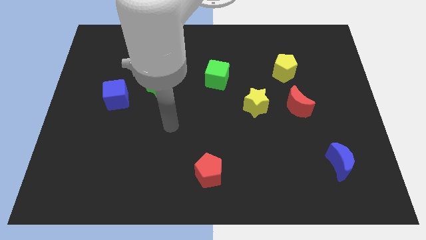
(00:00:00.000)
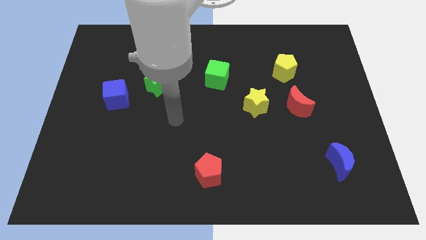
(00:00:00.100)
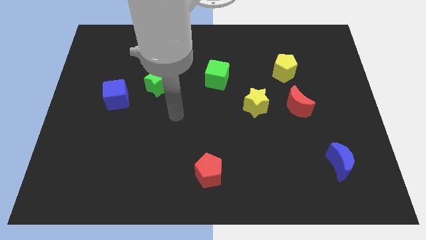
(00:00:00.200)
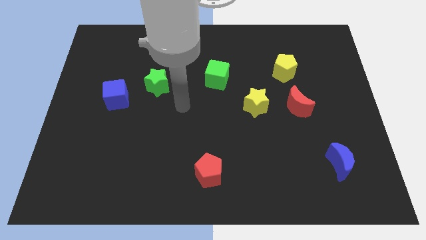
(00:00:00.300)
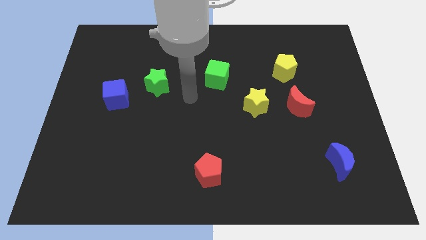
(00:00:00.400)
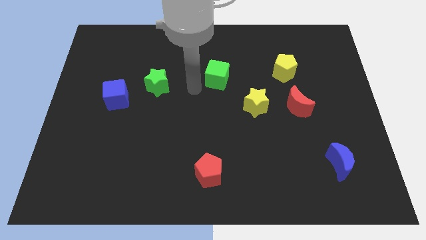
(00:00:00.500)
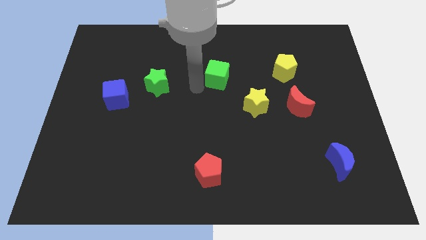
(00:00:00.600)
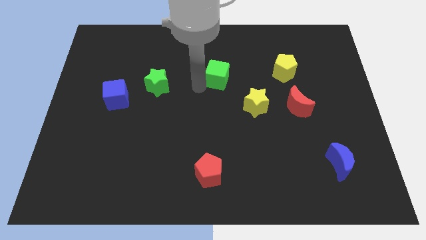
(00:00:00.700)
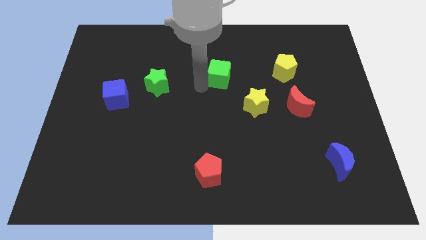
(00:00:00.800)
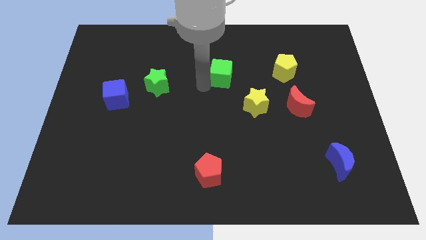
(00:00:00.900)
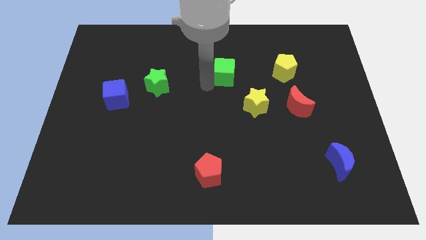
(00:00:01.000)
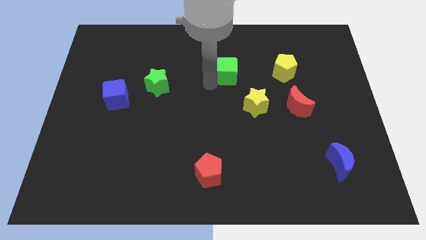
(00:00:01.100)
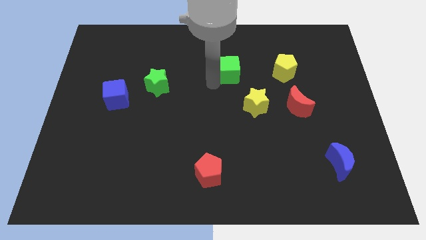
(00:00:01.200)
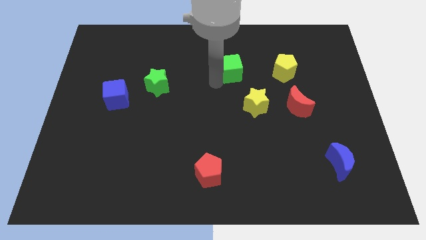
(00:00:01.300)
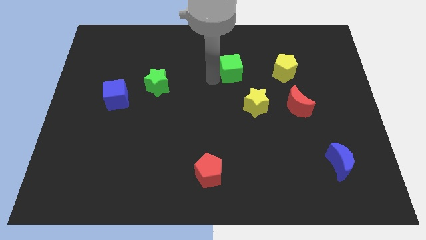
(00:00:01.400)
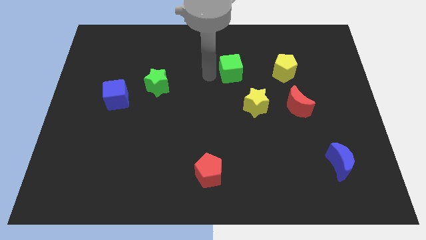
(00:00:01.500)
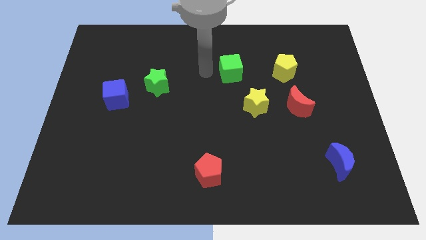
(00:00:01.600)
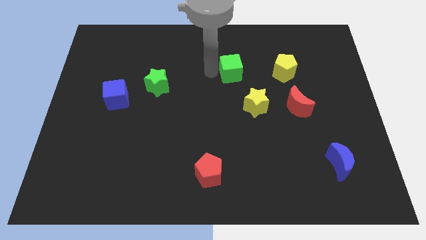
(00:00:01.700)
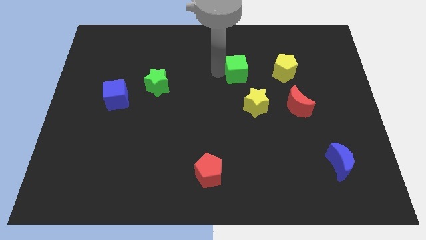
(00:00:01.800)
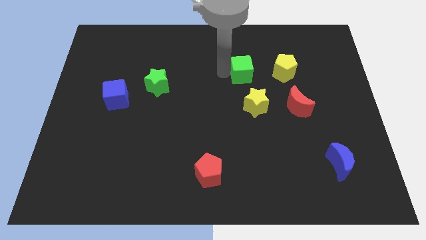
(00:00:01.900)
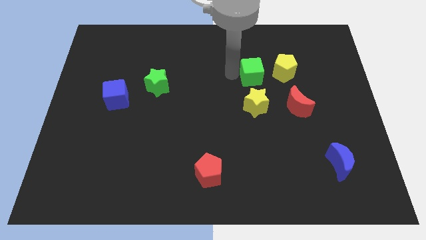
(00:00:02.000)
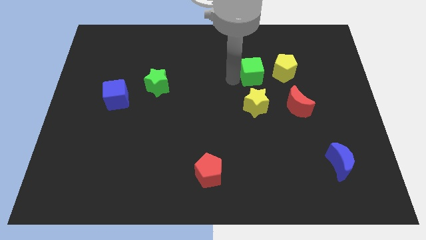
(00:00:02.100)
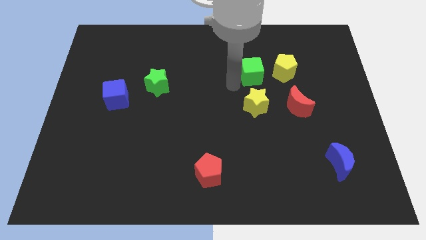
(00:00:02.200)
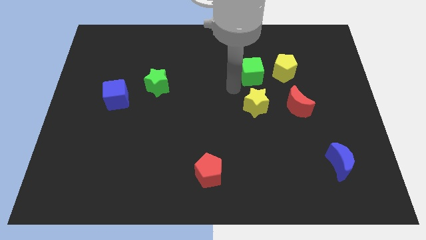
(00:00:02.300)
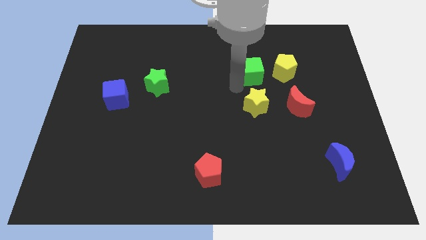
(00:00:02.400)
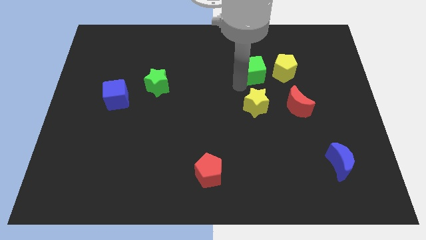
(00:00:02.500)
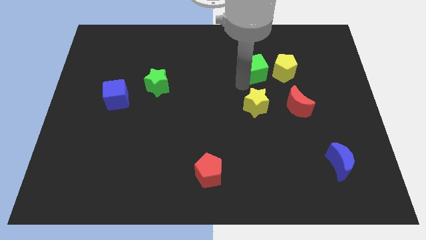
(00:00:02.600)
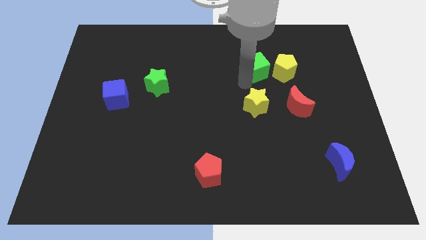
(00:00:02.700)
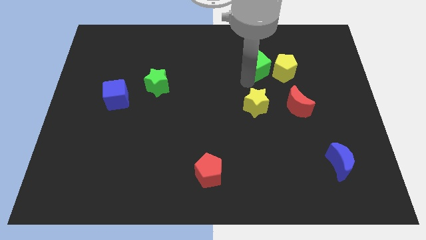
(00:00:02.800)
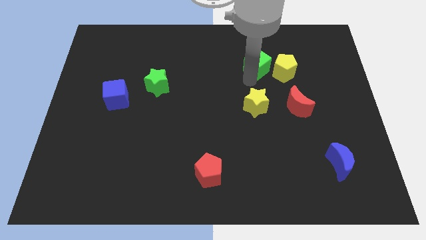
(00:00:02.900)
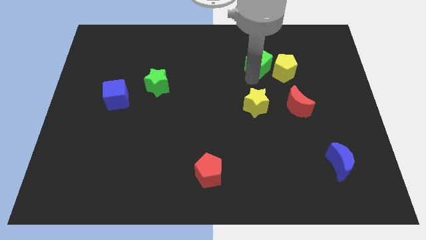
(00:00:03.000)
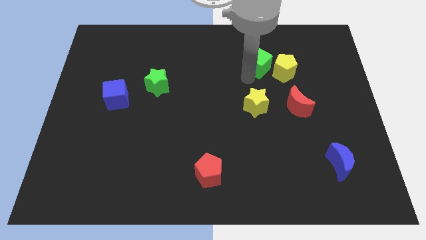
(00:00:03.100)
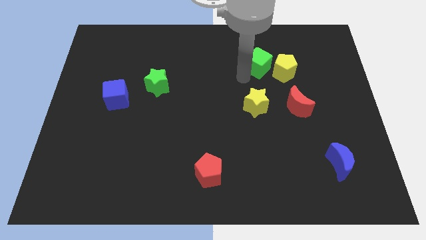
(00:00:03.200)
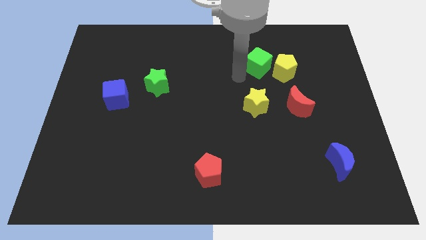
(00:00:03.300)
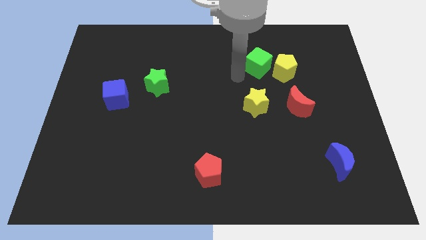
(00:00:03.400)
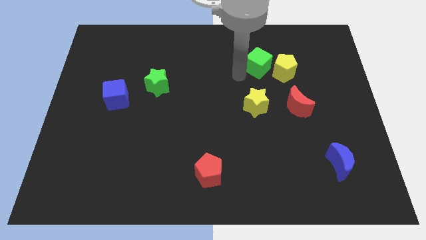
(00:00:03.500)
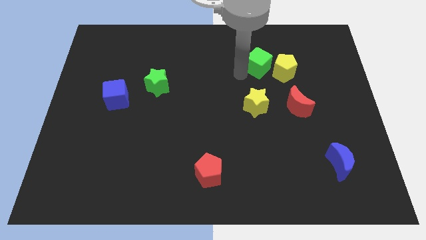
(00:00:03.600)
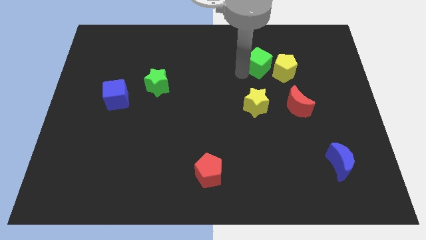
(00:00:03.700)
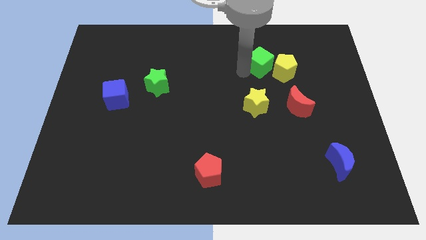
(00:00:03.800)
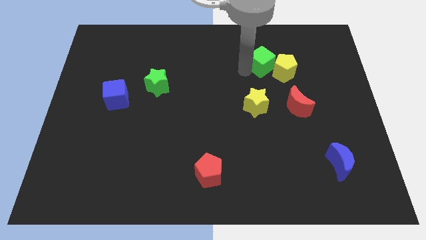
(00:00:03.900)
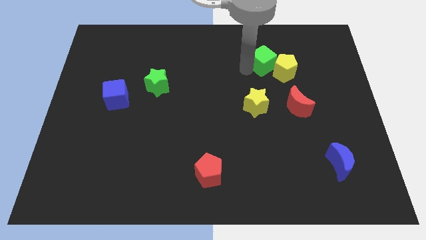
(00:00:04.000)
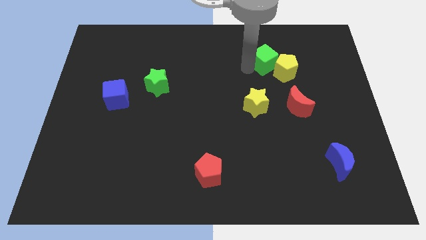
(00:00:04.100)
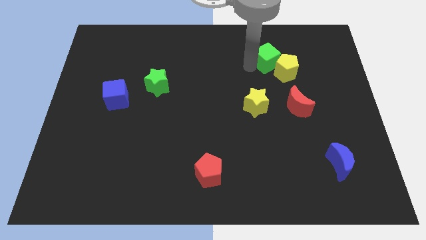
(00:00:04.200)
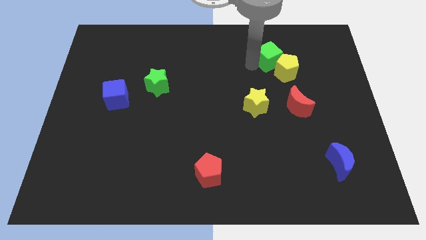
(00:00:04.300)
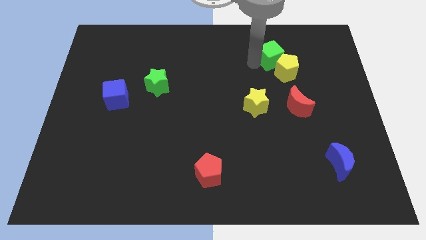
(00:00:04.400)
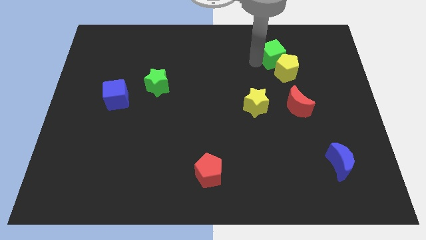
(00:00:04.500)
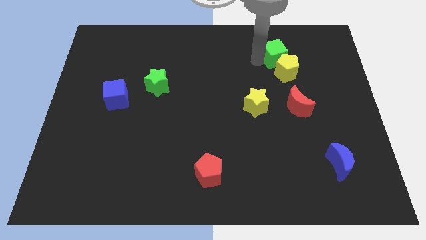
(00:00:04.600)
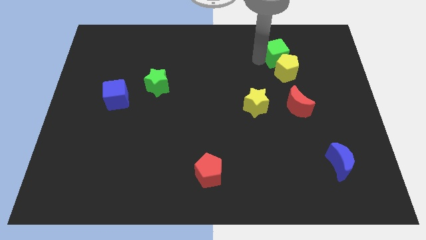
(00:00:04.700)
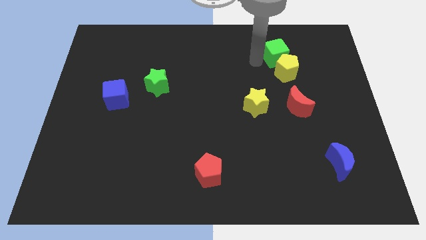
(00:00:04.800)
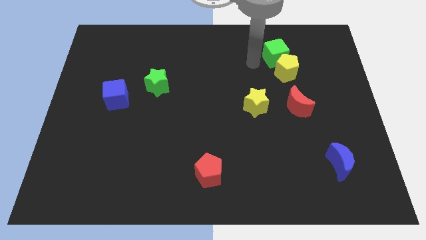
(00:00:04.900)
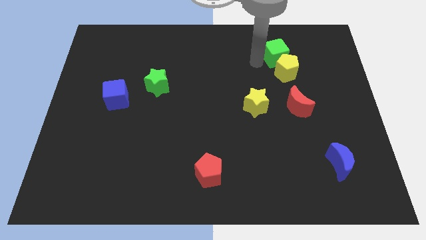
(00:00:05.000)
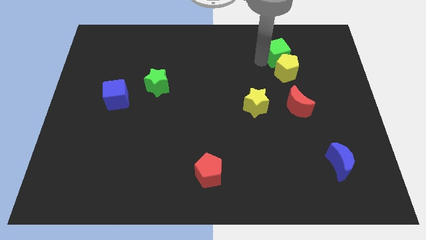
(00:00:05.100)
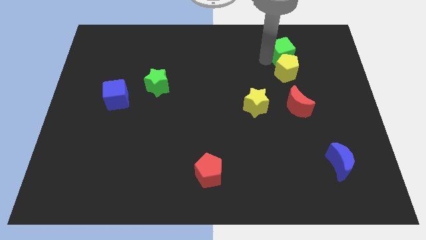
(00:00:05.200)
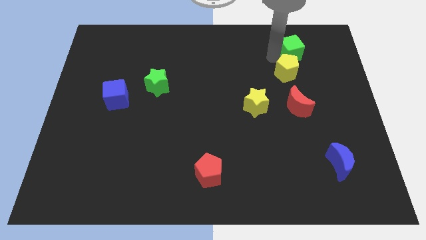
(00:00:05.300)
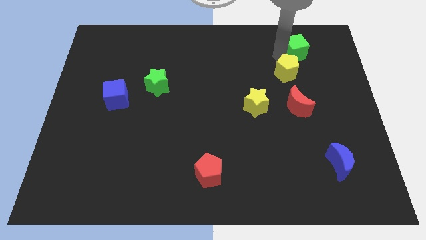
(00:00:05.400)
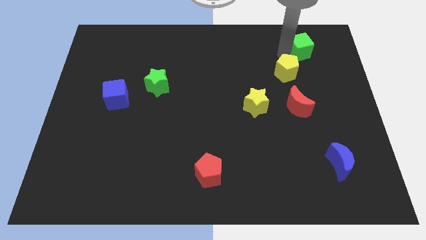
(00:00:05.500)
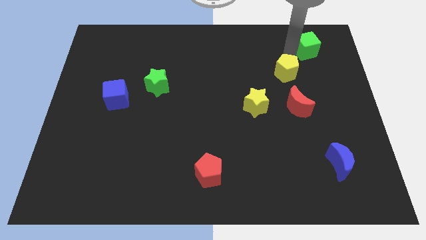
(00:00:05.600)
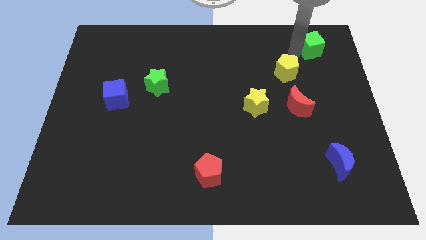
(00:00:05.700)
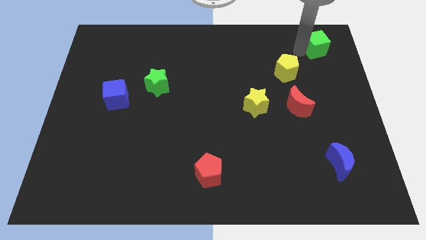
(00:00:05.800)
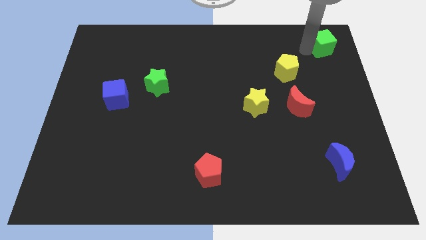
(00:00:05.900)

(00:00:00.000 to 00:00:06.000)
move the green cube to the top right of the board
